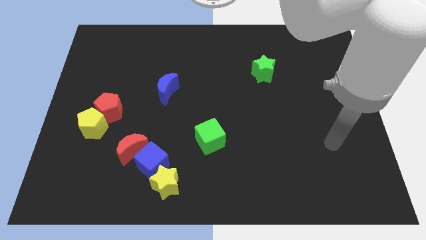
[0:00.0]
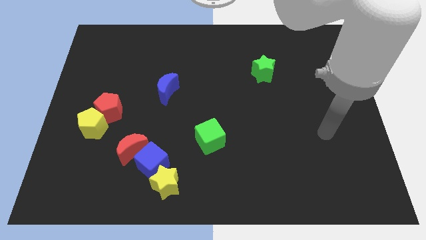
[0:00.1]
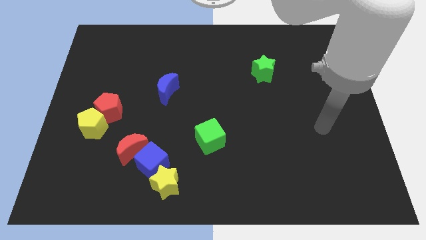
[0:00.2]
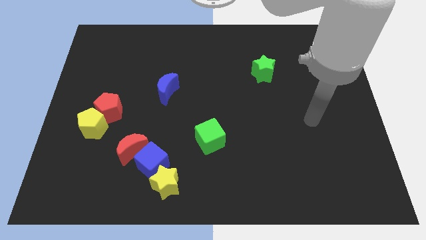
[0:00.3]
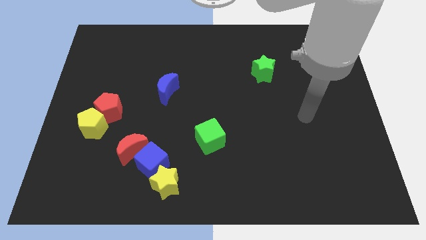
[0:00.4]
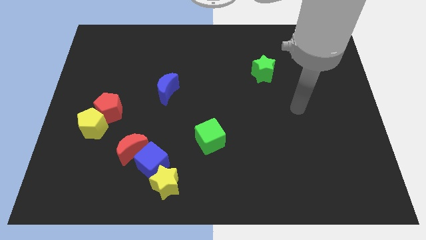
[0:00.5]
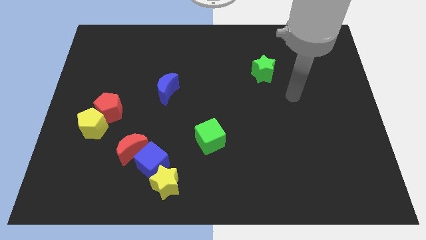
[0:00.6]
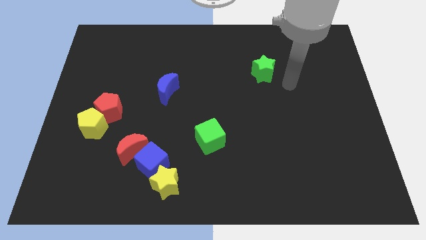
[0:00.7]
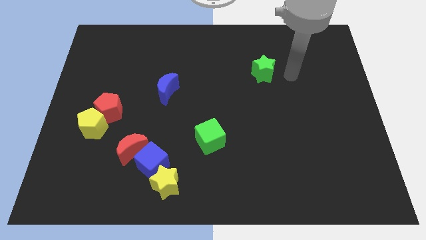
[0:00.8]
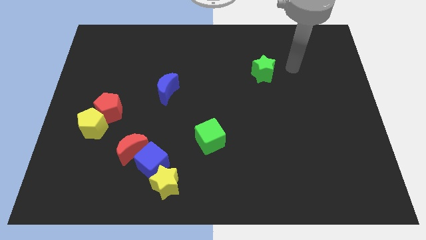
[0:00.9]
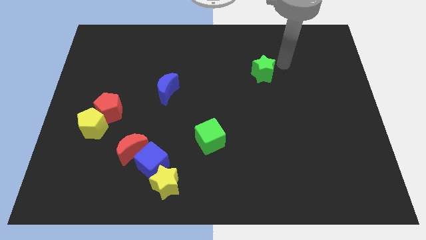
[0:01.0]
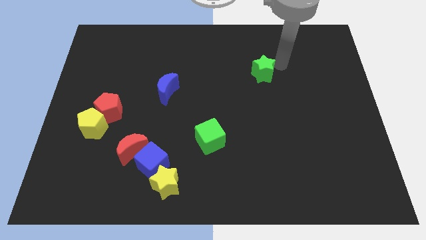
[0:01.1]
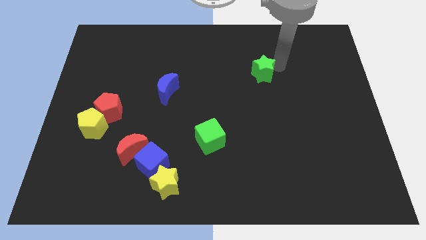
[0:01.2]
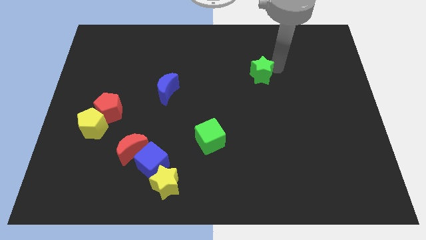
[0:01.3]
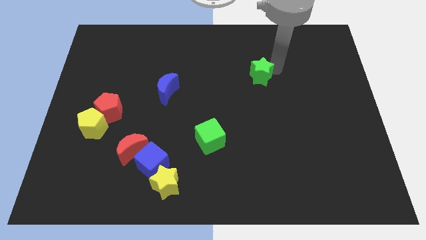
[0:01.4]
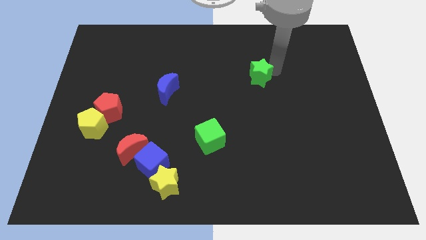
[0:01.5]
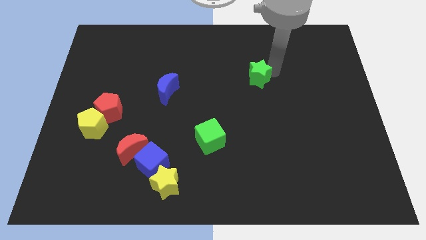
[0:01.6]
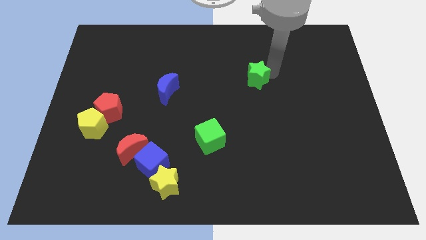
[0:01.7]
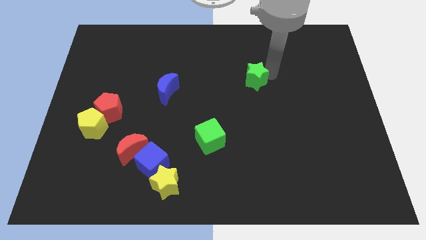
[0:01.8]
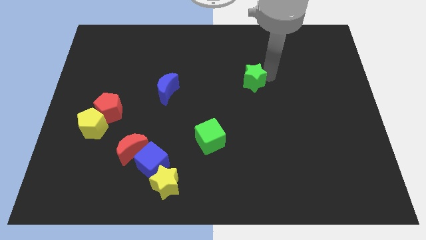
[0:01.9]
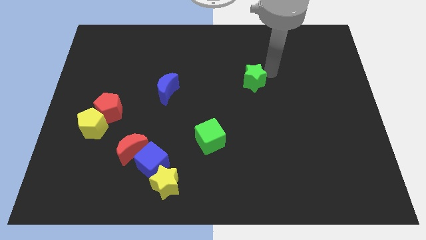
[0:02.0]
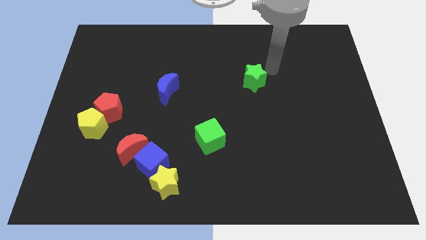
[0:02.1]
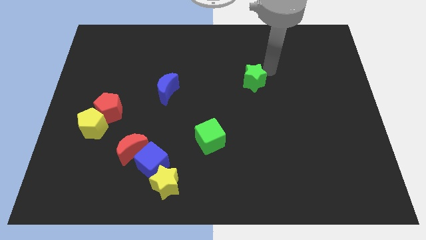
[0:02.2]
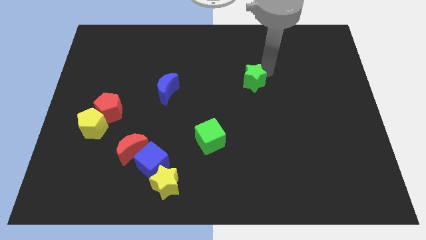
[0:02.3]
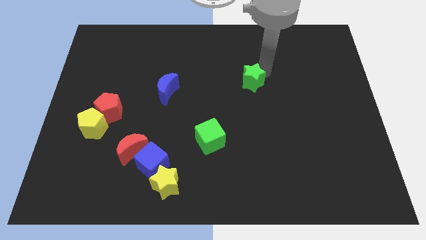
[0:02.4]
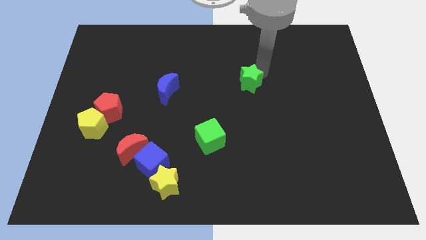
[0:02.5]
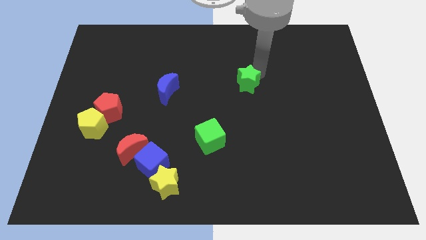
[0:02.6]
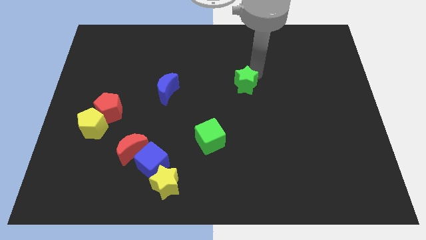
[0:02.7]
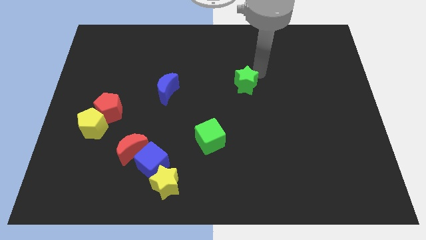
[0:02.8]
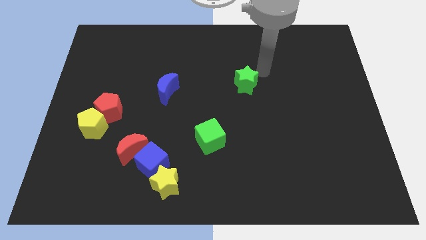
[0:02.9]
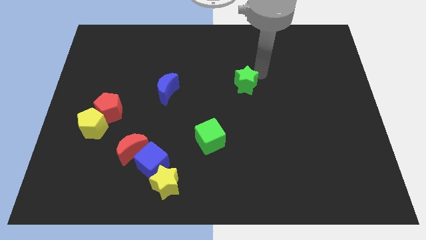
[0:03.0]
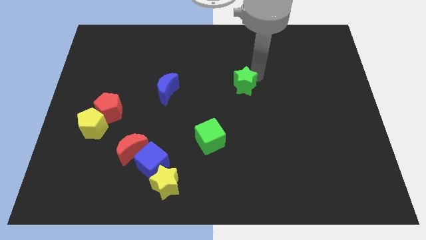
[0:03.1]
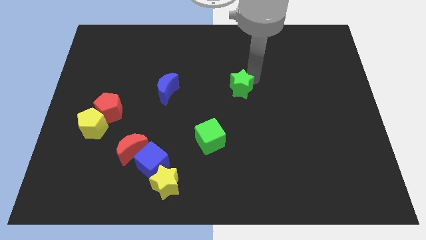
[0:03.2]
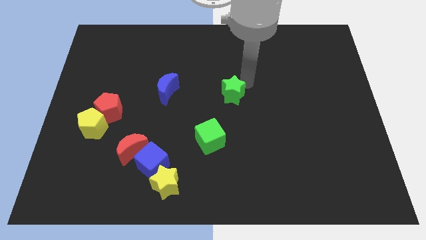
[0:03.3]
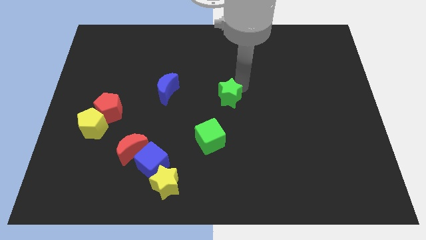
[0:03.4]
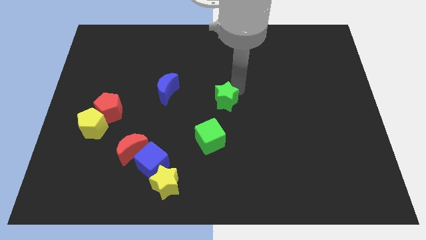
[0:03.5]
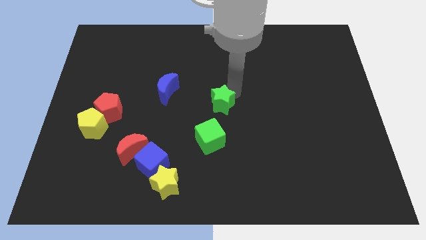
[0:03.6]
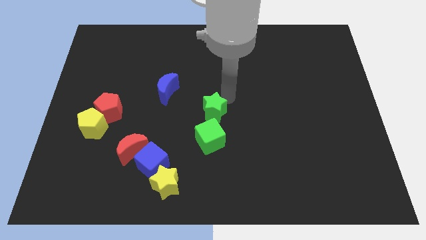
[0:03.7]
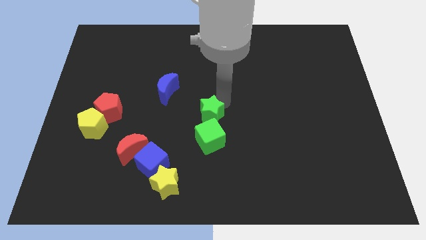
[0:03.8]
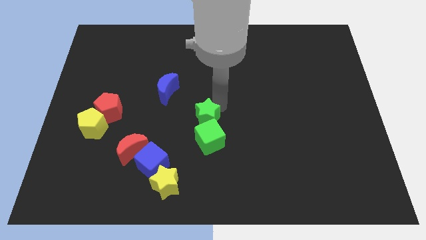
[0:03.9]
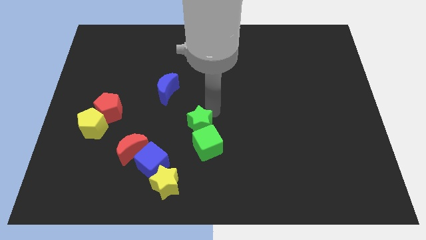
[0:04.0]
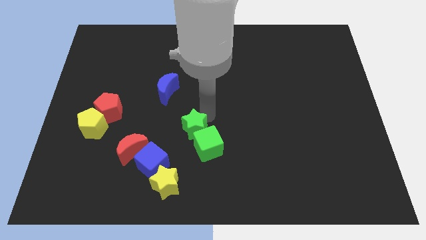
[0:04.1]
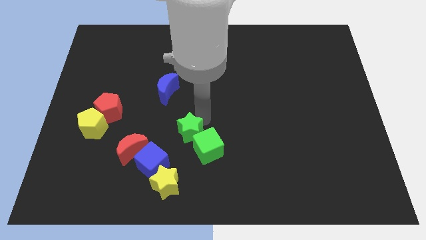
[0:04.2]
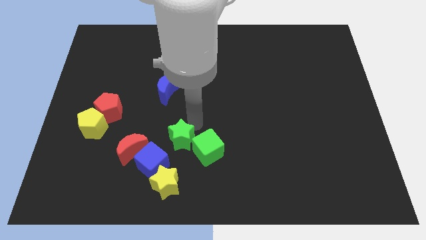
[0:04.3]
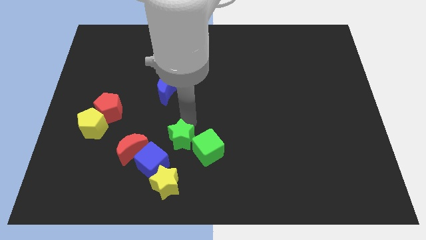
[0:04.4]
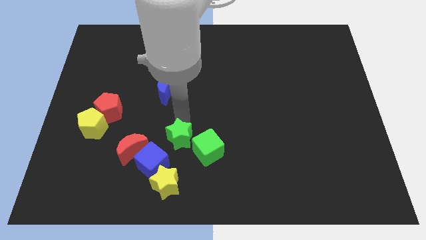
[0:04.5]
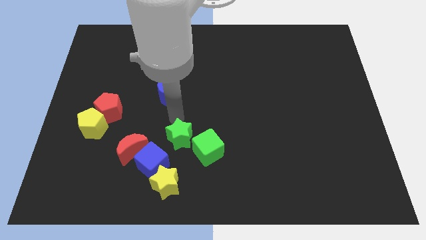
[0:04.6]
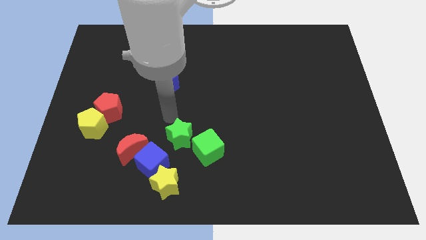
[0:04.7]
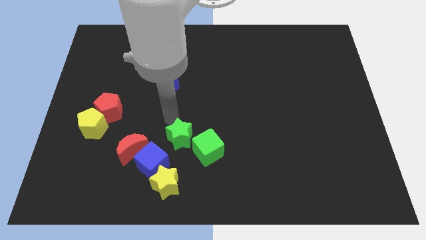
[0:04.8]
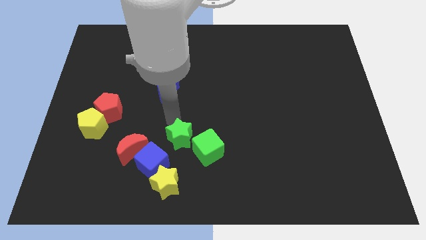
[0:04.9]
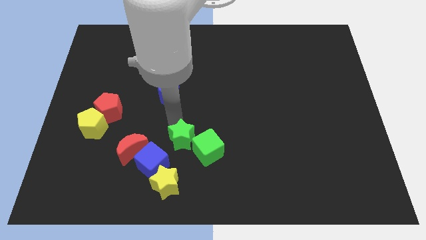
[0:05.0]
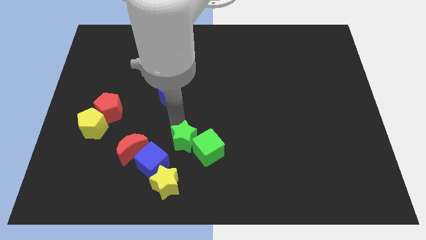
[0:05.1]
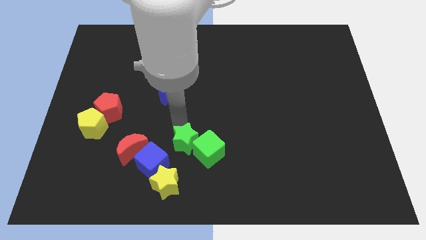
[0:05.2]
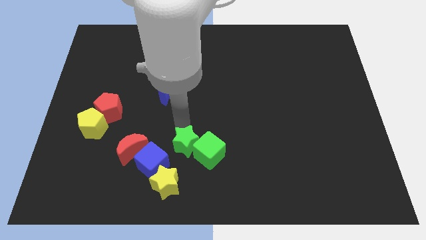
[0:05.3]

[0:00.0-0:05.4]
push the green star to the top right side of the yellow star

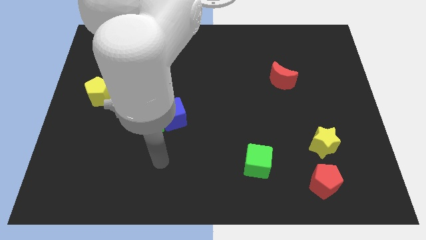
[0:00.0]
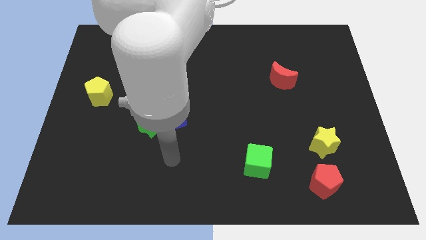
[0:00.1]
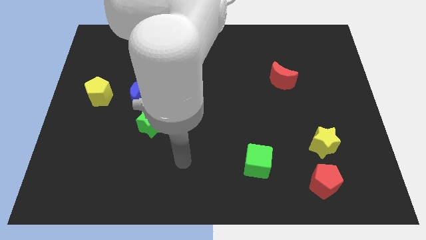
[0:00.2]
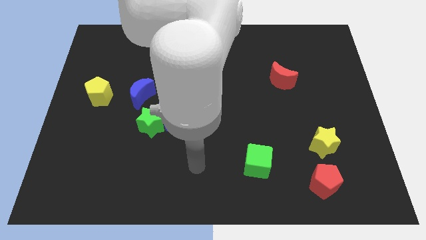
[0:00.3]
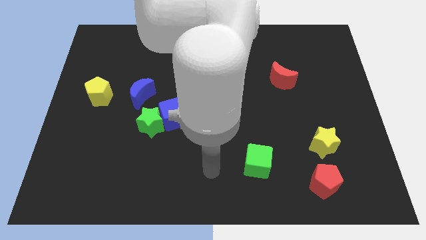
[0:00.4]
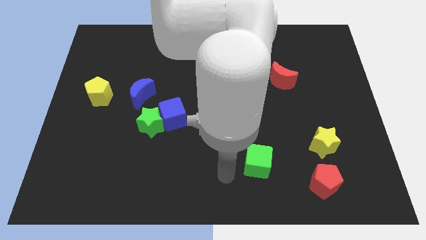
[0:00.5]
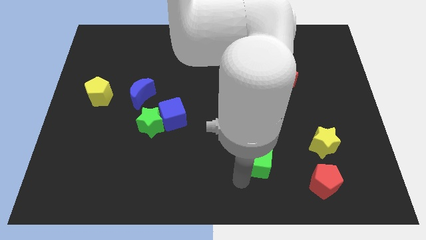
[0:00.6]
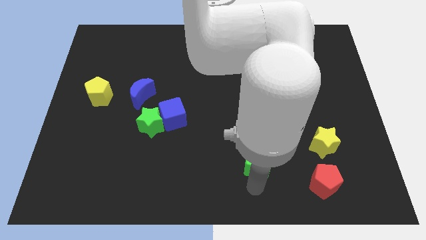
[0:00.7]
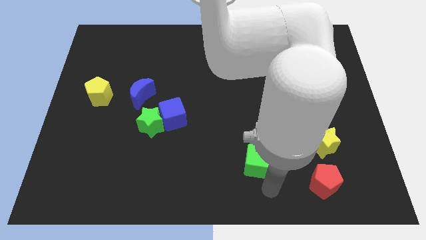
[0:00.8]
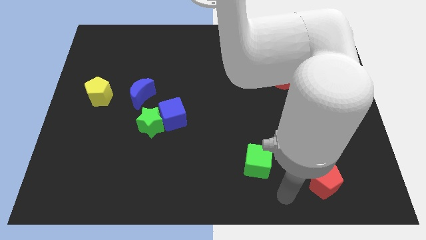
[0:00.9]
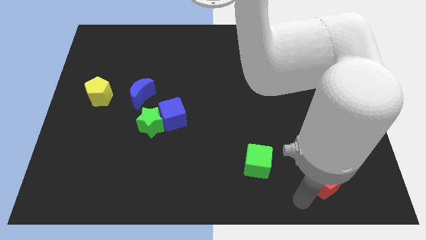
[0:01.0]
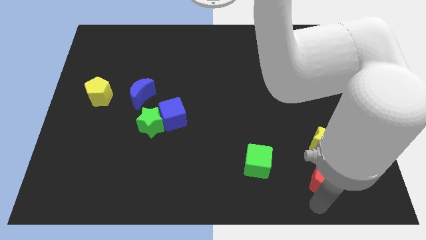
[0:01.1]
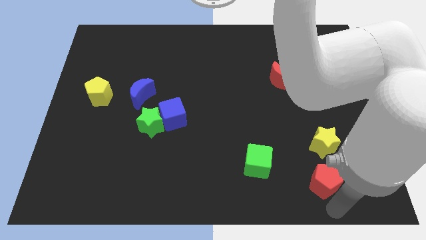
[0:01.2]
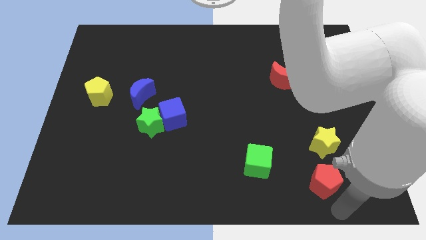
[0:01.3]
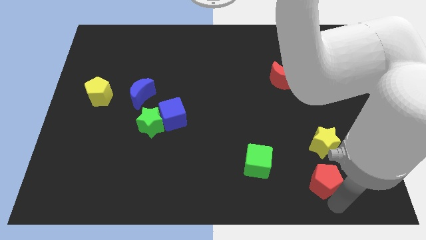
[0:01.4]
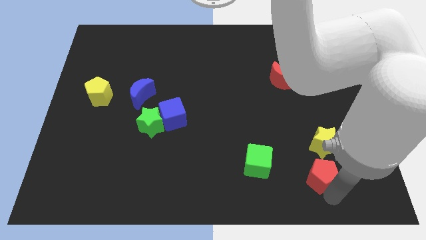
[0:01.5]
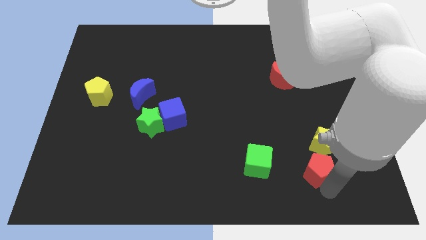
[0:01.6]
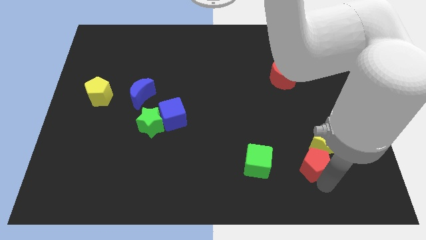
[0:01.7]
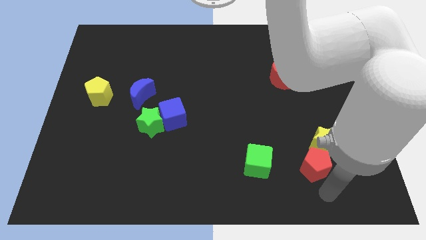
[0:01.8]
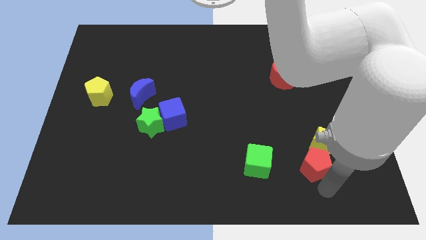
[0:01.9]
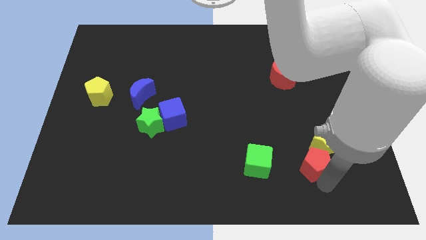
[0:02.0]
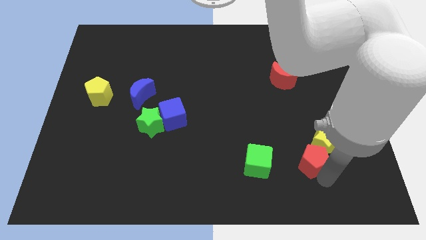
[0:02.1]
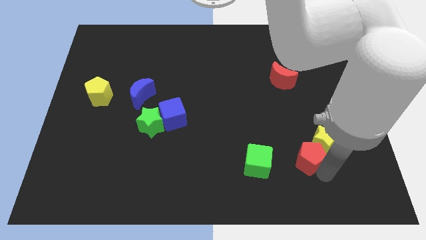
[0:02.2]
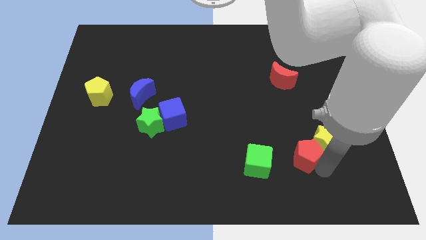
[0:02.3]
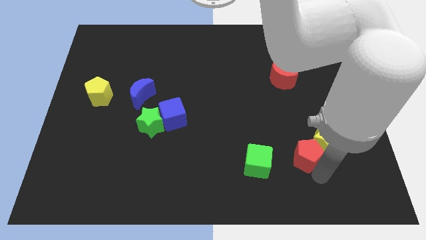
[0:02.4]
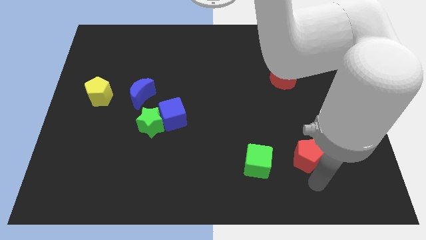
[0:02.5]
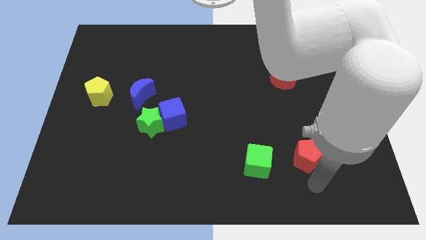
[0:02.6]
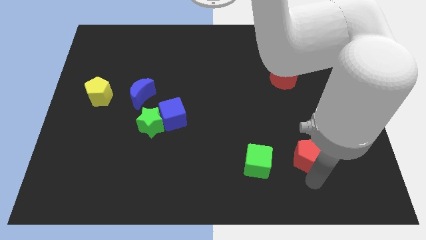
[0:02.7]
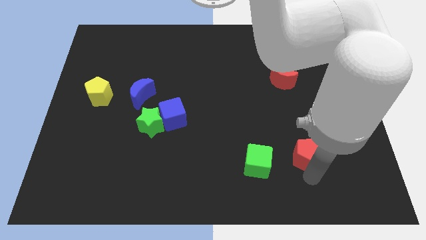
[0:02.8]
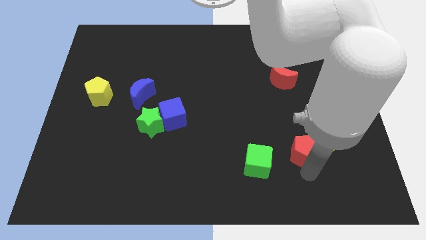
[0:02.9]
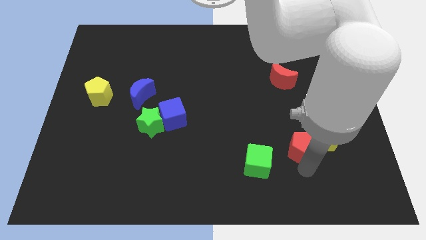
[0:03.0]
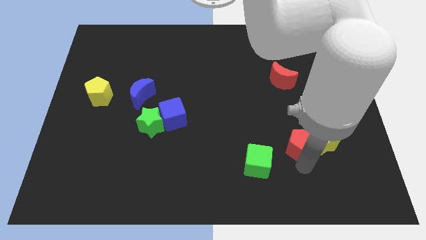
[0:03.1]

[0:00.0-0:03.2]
move the red pentagon diagonally up and to the left of the yellow star
